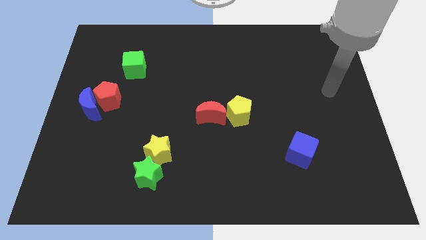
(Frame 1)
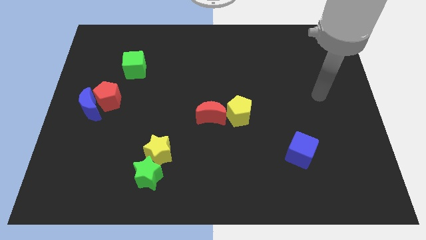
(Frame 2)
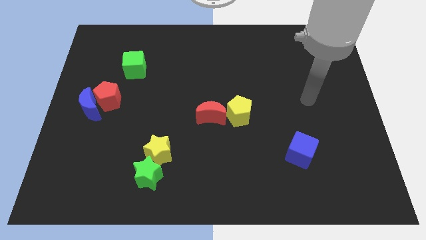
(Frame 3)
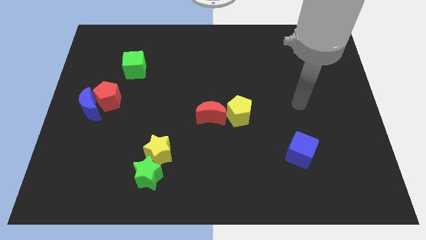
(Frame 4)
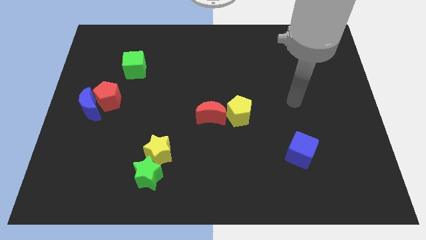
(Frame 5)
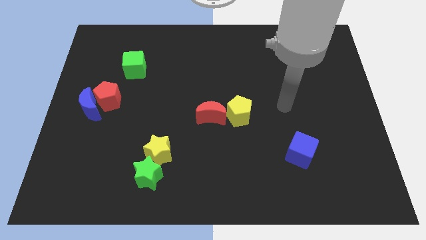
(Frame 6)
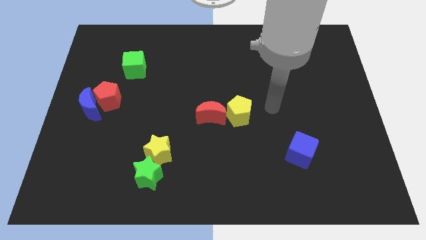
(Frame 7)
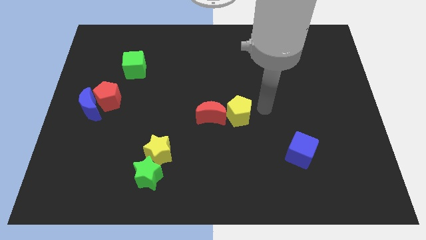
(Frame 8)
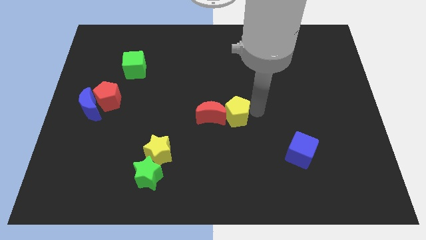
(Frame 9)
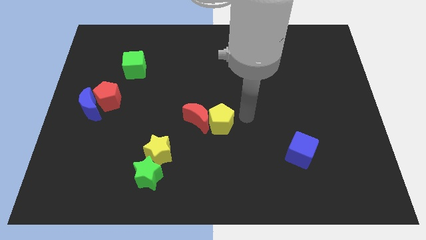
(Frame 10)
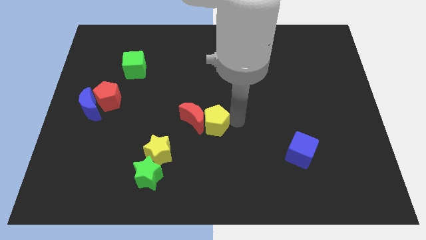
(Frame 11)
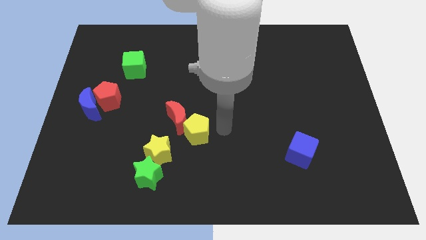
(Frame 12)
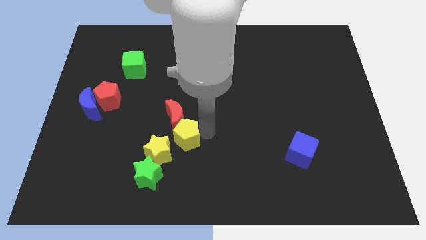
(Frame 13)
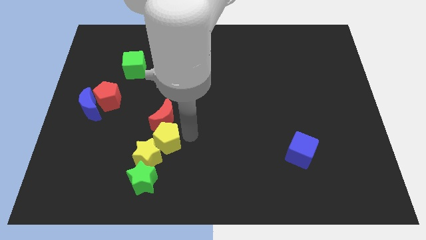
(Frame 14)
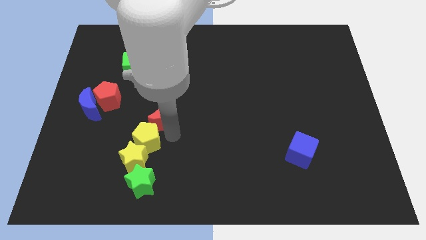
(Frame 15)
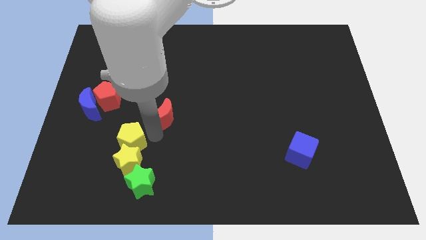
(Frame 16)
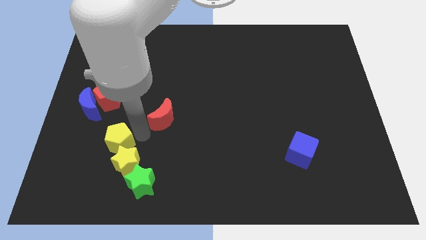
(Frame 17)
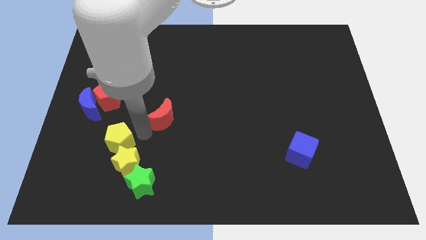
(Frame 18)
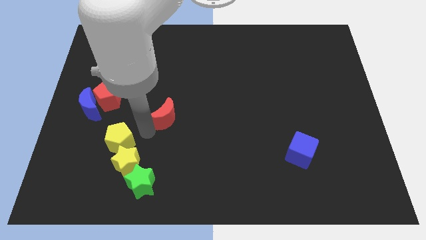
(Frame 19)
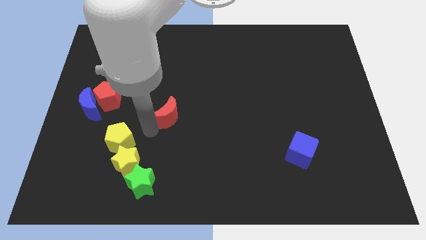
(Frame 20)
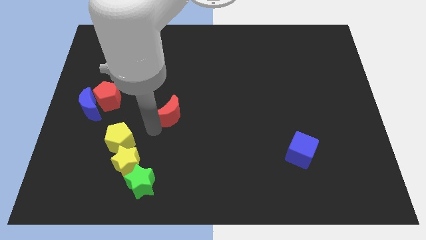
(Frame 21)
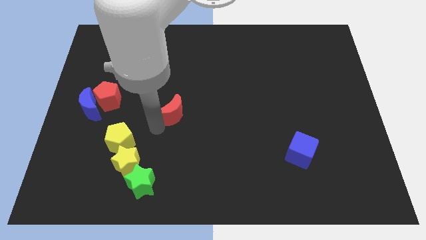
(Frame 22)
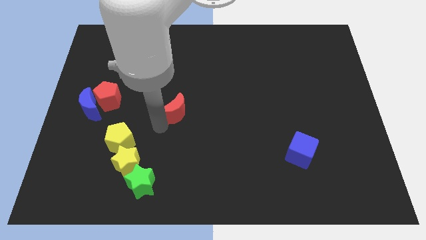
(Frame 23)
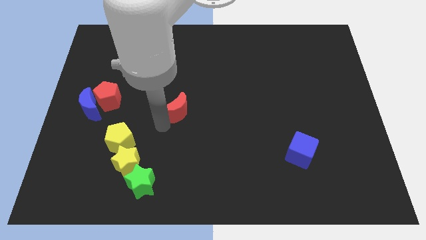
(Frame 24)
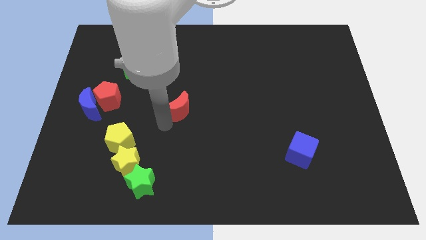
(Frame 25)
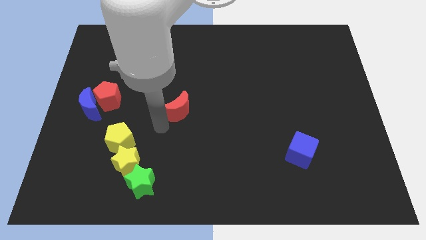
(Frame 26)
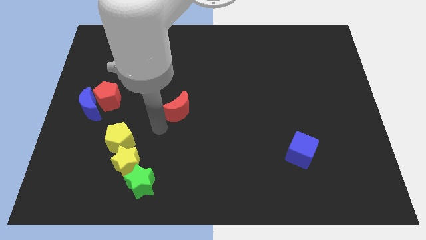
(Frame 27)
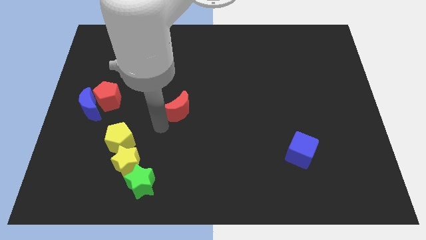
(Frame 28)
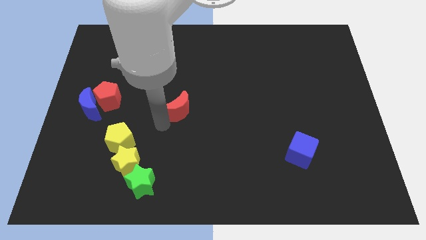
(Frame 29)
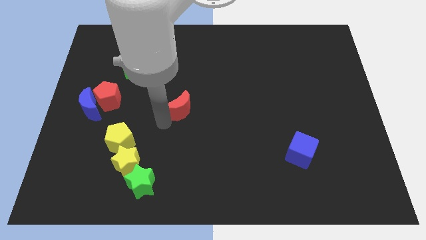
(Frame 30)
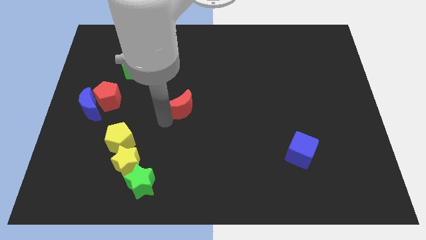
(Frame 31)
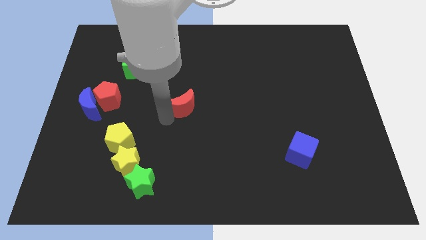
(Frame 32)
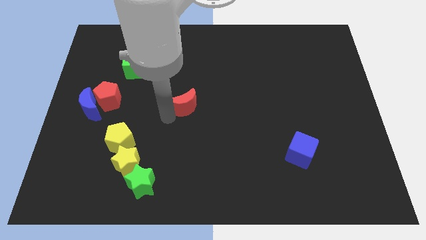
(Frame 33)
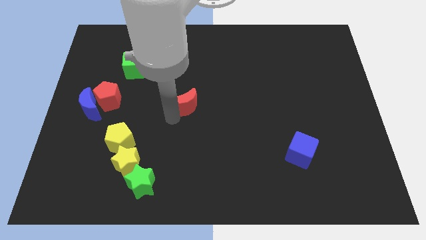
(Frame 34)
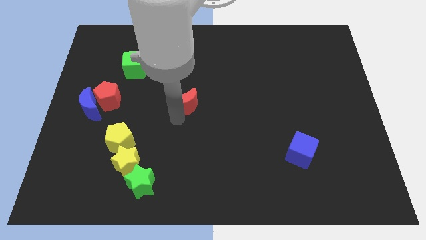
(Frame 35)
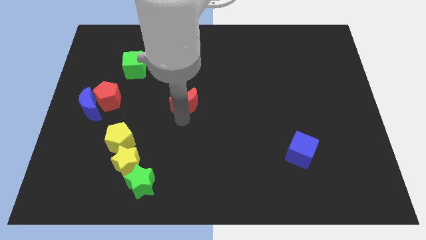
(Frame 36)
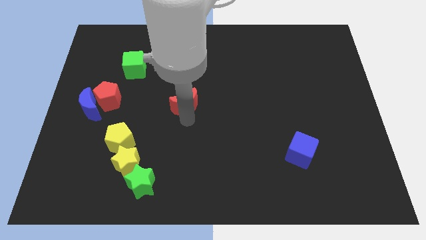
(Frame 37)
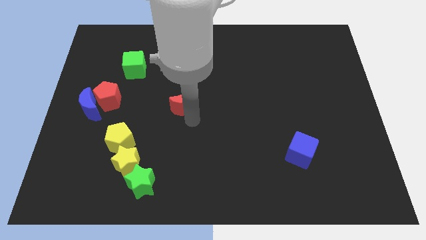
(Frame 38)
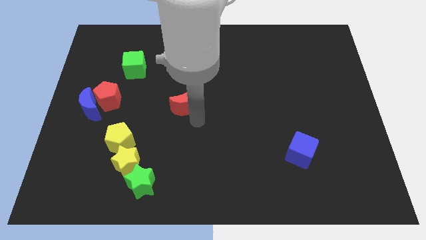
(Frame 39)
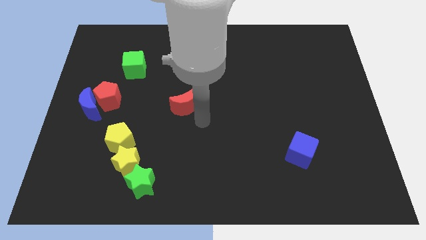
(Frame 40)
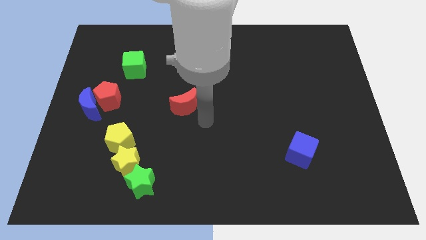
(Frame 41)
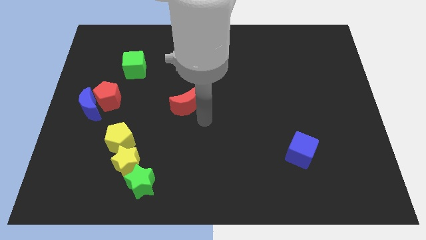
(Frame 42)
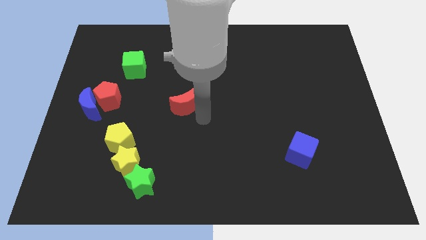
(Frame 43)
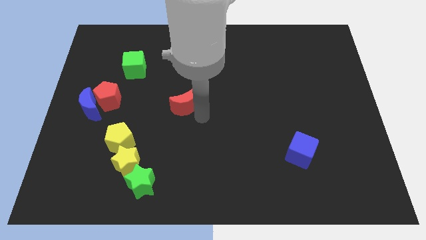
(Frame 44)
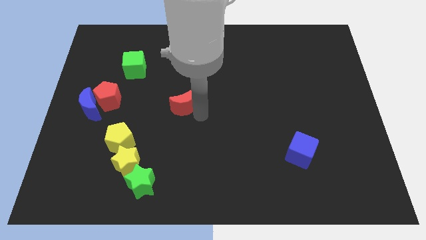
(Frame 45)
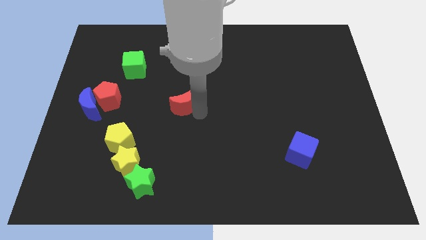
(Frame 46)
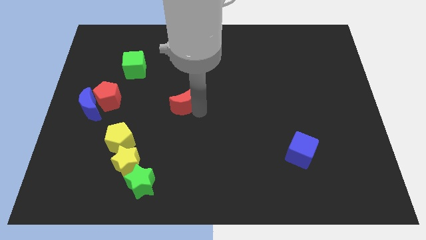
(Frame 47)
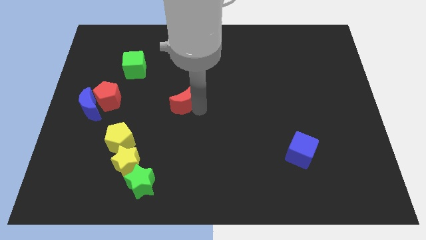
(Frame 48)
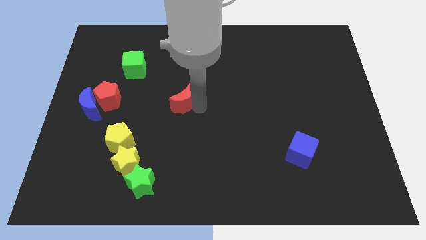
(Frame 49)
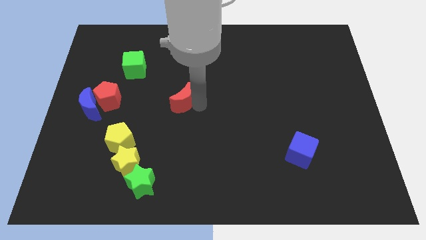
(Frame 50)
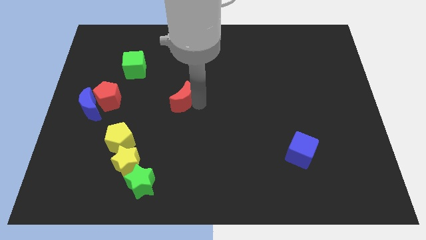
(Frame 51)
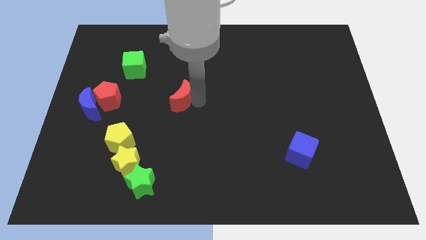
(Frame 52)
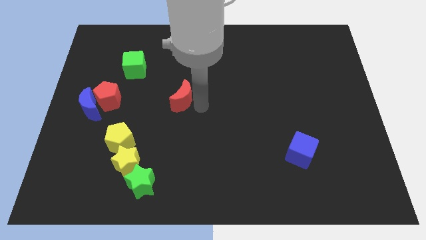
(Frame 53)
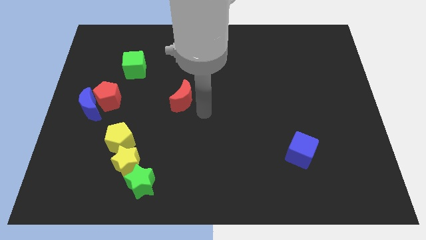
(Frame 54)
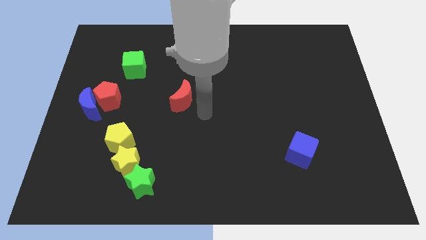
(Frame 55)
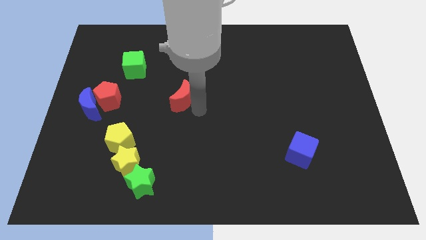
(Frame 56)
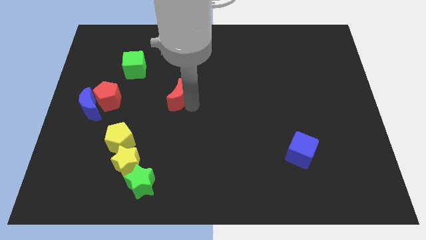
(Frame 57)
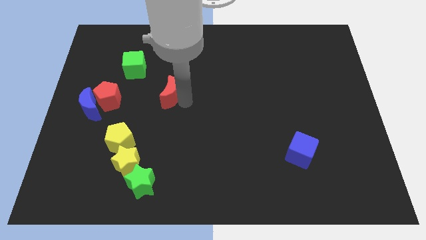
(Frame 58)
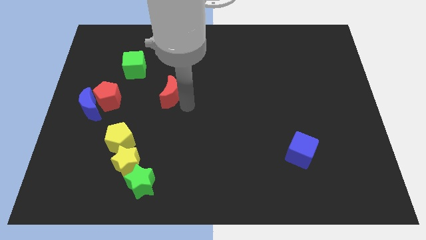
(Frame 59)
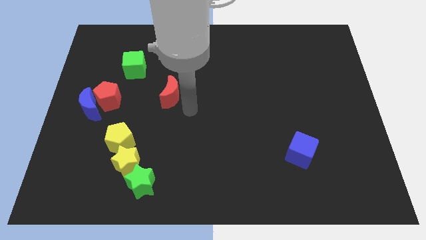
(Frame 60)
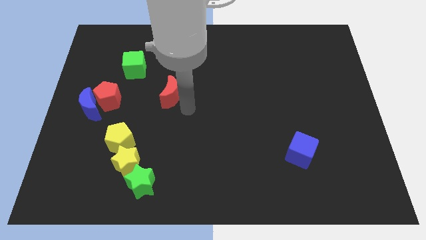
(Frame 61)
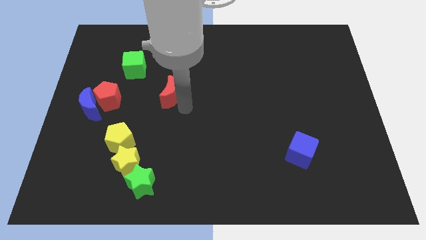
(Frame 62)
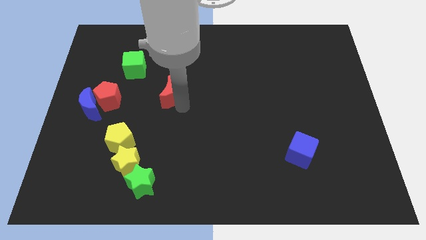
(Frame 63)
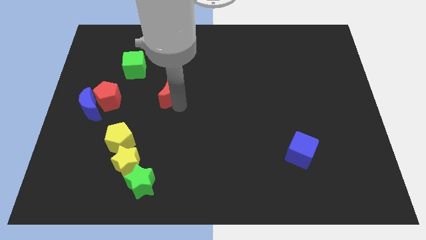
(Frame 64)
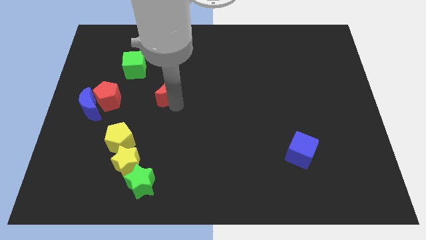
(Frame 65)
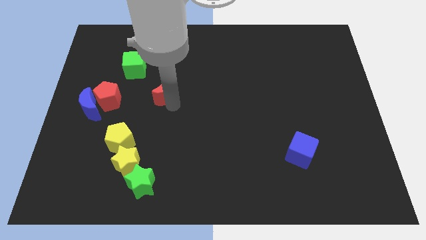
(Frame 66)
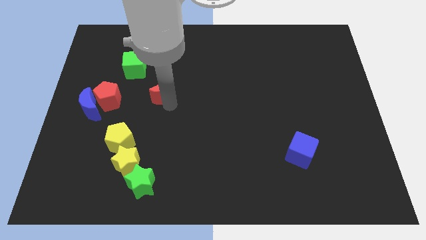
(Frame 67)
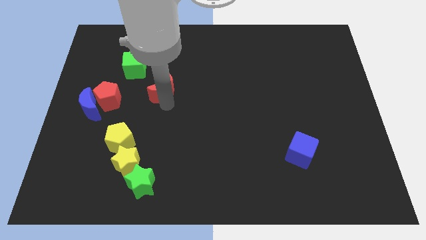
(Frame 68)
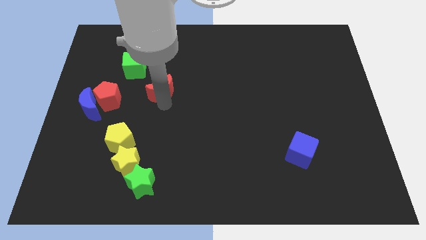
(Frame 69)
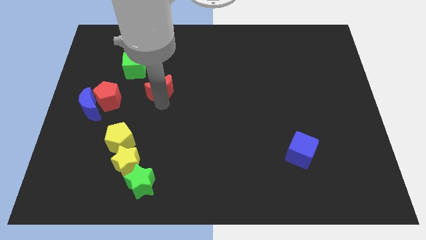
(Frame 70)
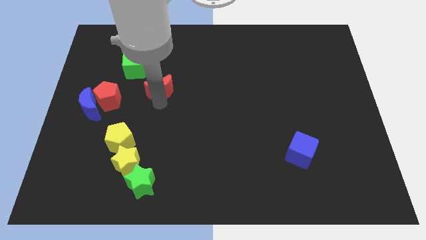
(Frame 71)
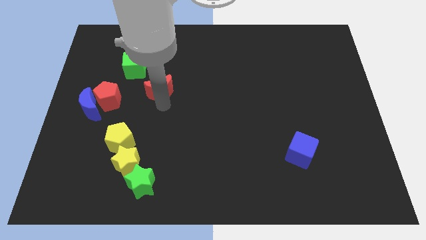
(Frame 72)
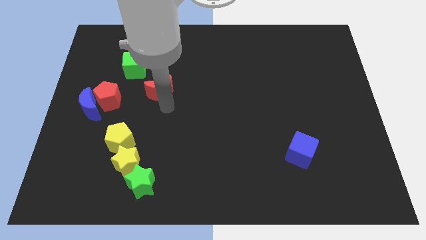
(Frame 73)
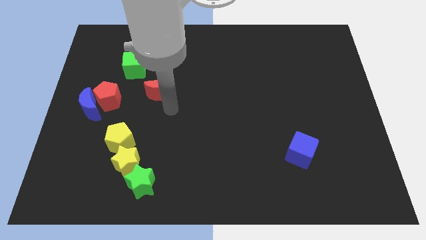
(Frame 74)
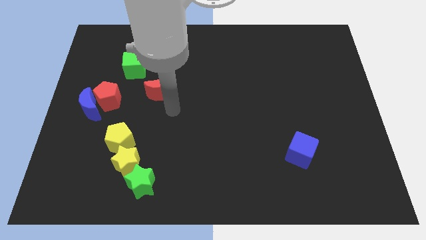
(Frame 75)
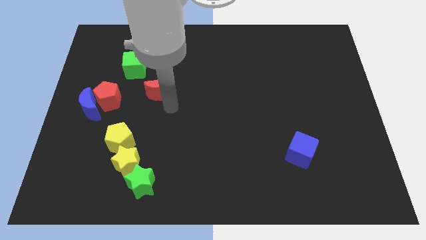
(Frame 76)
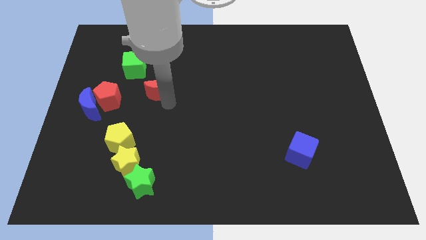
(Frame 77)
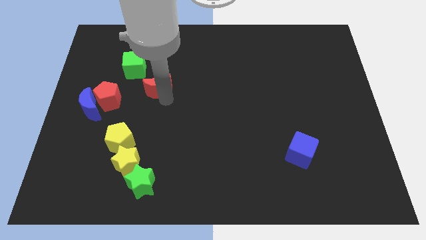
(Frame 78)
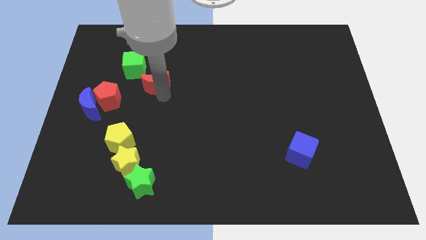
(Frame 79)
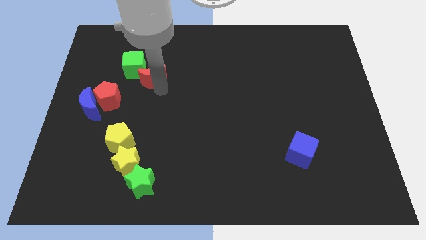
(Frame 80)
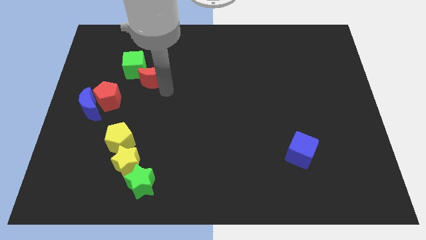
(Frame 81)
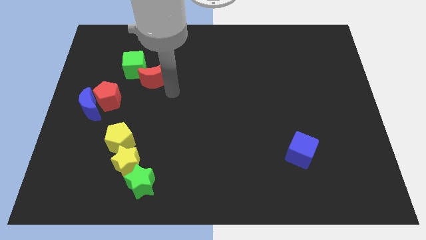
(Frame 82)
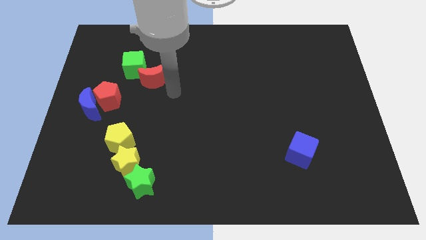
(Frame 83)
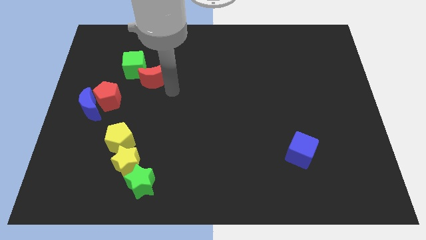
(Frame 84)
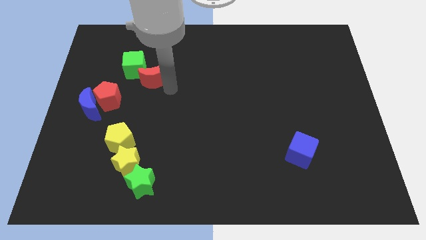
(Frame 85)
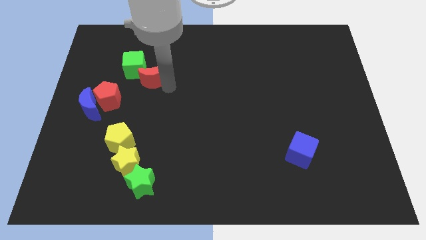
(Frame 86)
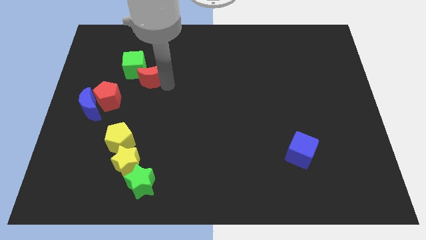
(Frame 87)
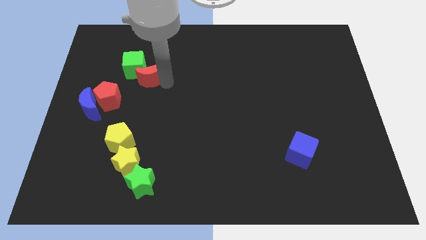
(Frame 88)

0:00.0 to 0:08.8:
put the red moon close to the green cube
